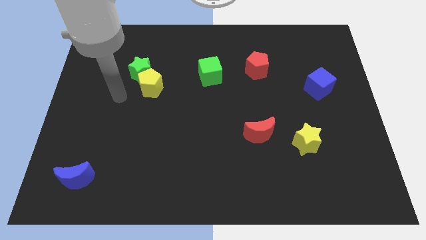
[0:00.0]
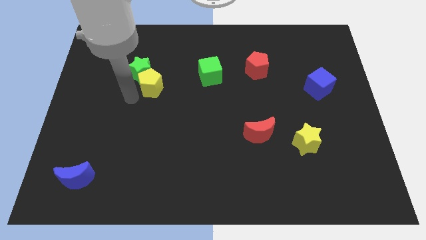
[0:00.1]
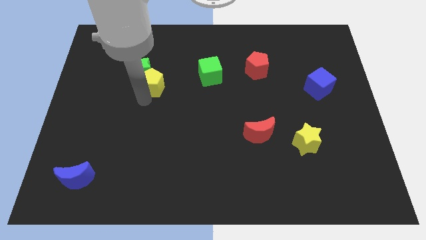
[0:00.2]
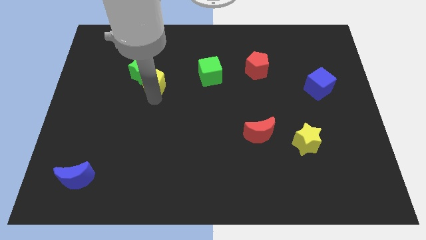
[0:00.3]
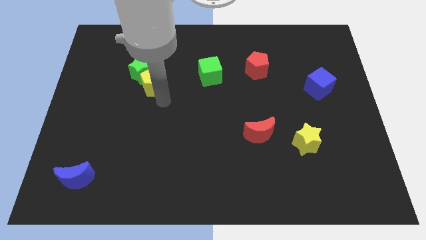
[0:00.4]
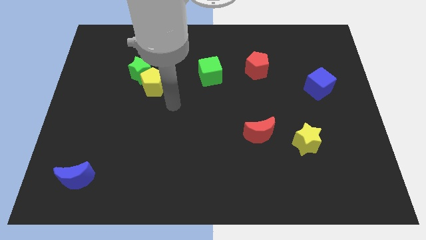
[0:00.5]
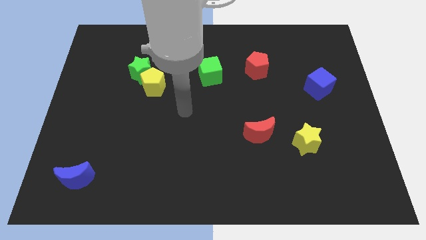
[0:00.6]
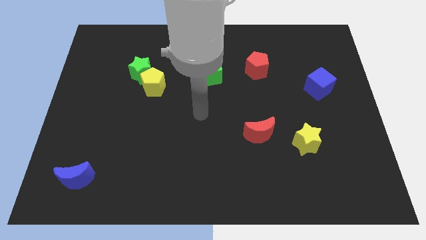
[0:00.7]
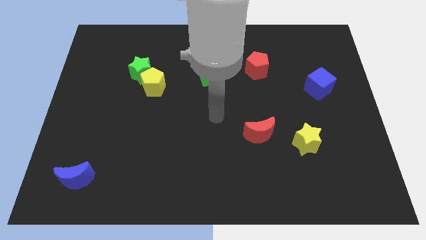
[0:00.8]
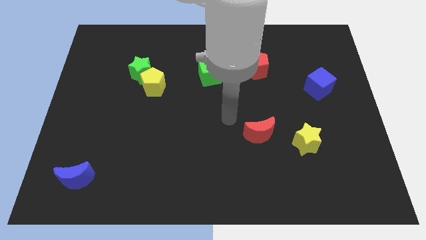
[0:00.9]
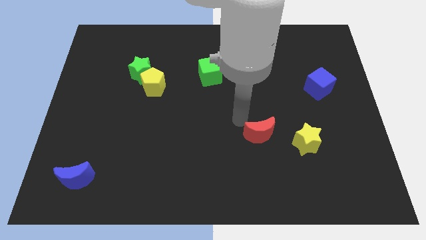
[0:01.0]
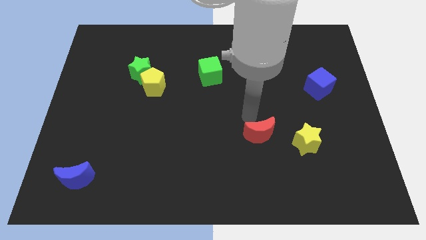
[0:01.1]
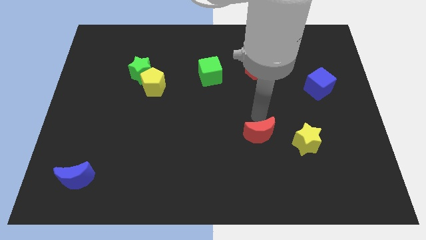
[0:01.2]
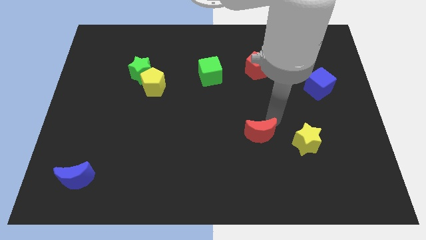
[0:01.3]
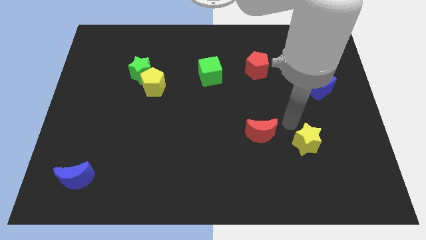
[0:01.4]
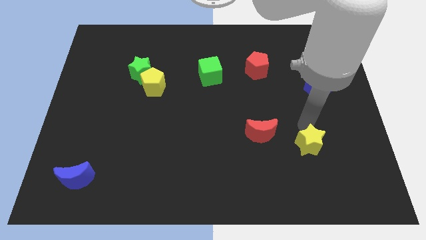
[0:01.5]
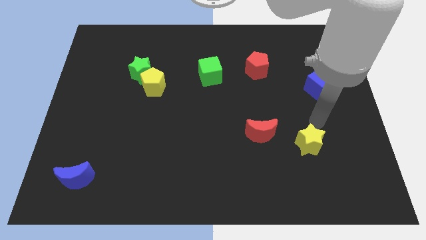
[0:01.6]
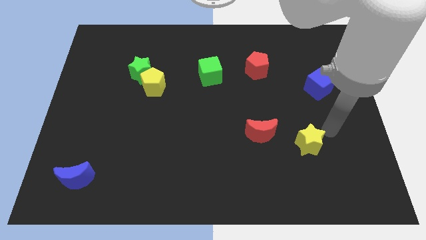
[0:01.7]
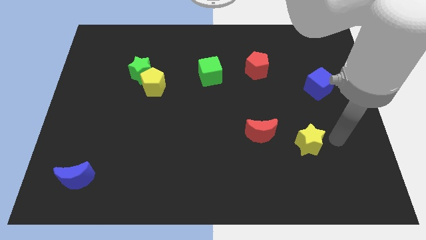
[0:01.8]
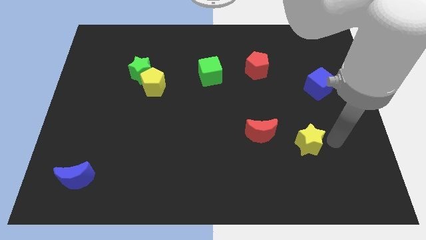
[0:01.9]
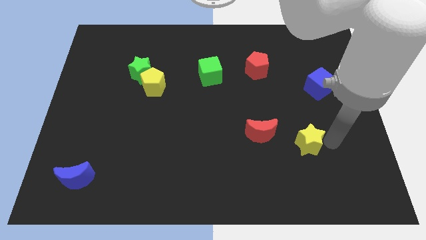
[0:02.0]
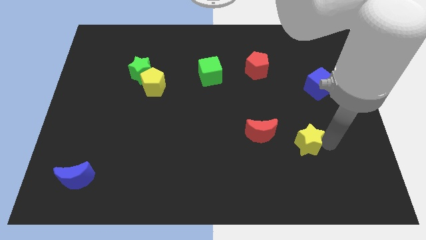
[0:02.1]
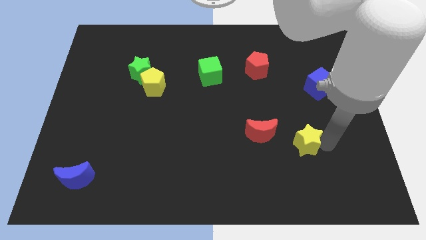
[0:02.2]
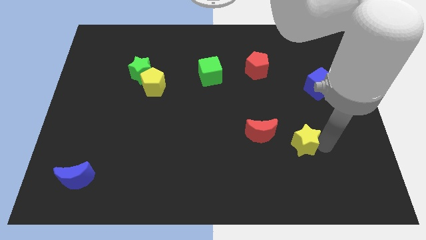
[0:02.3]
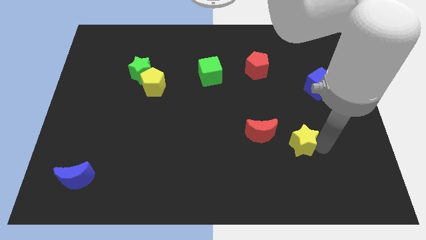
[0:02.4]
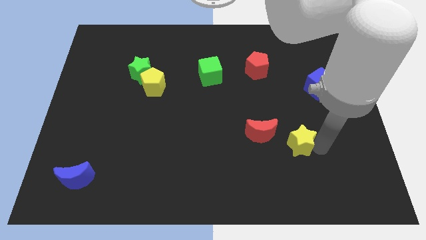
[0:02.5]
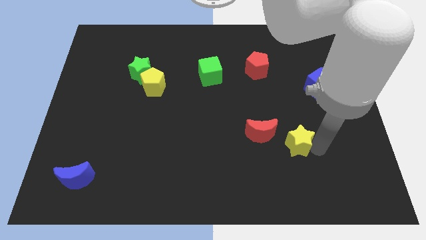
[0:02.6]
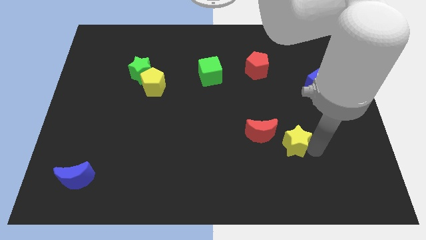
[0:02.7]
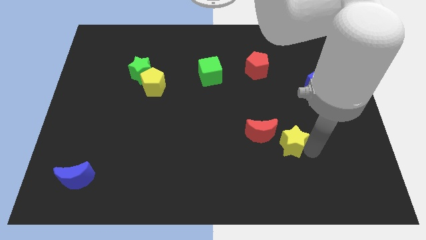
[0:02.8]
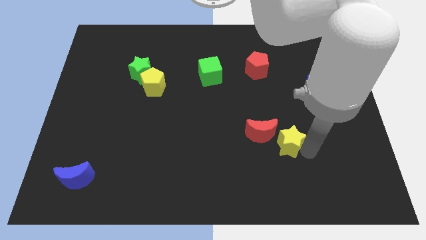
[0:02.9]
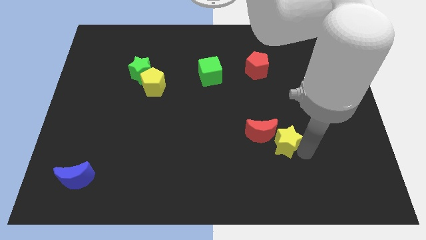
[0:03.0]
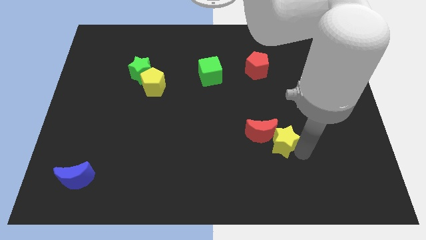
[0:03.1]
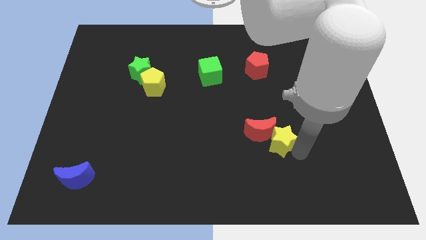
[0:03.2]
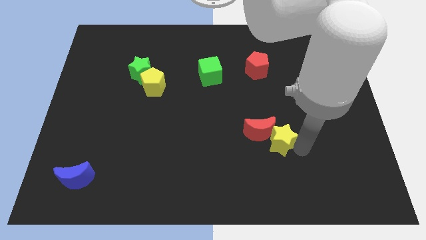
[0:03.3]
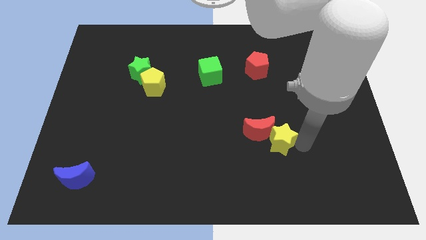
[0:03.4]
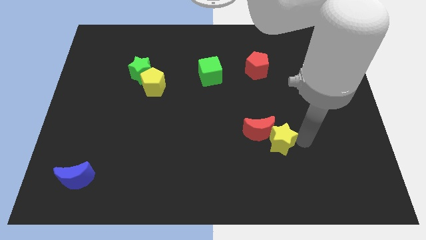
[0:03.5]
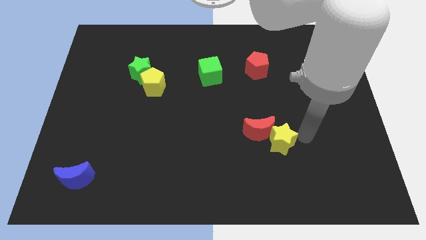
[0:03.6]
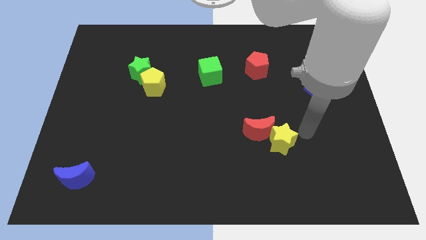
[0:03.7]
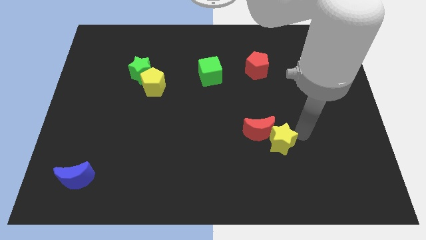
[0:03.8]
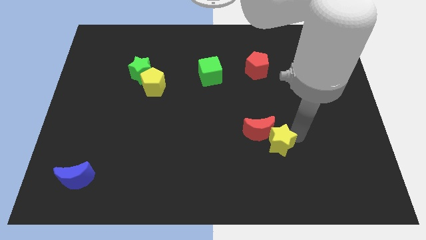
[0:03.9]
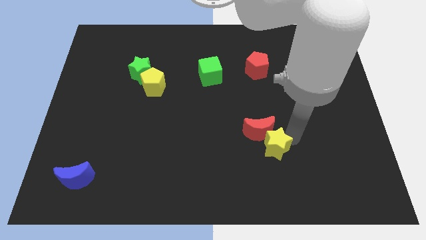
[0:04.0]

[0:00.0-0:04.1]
move the yellow star to the left slightly

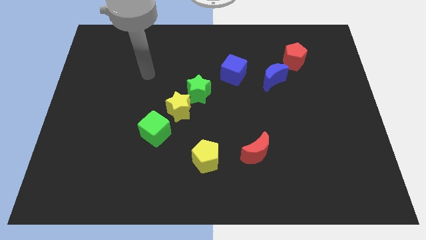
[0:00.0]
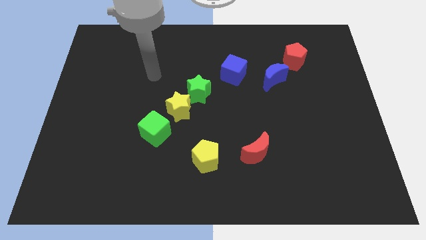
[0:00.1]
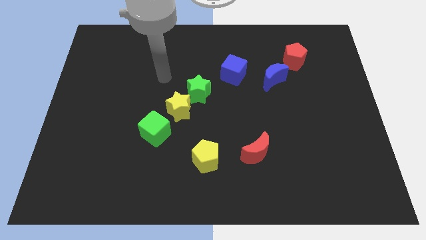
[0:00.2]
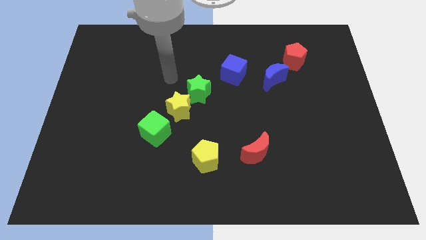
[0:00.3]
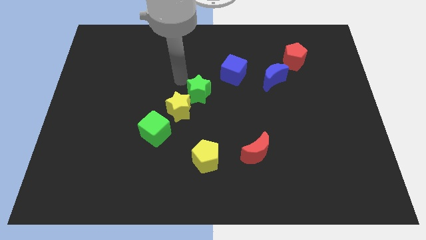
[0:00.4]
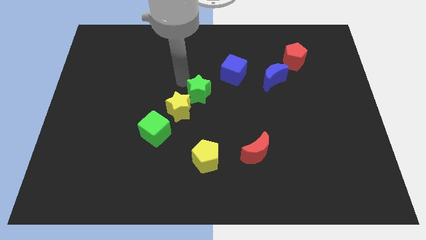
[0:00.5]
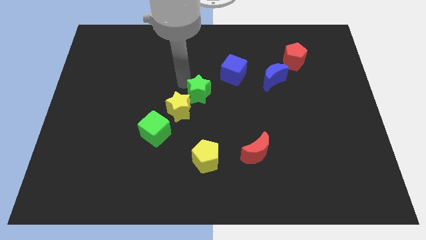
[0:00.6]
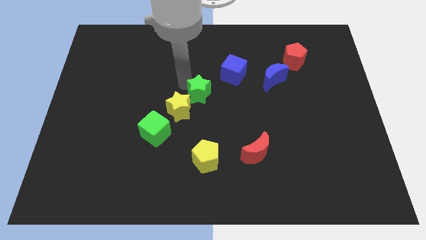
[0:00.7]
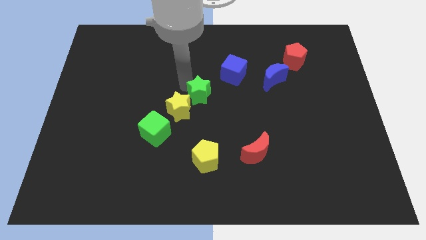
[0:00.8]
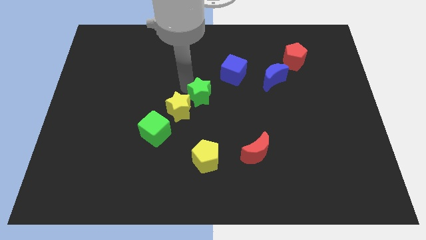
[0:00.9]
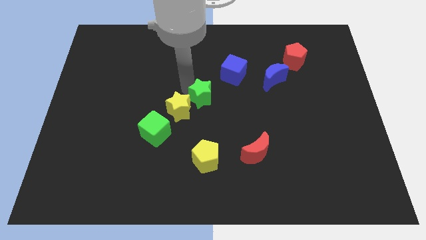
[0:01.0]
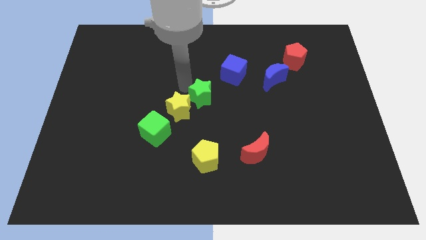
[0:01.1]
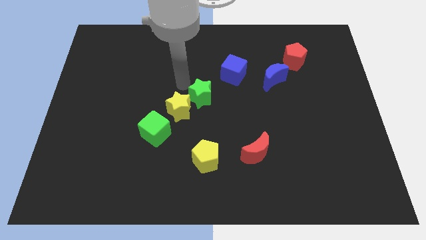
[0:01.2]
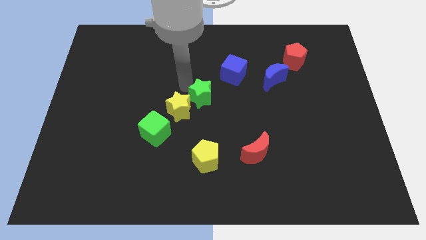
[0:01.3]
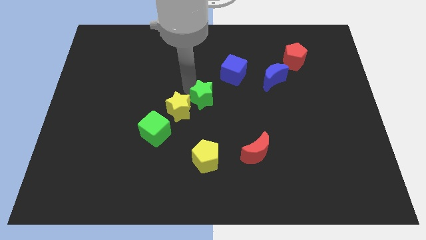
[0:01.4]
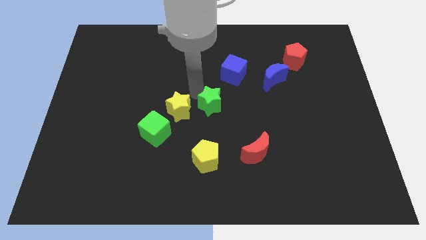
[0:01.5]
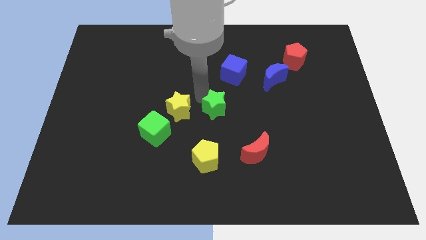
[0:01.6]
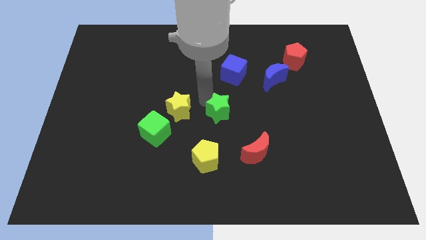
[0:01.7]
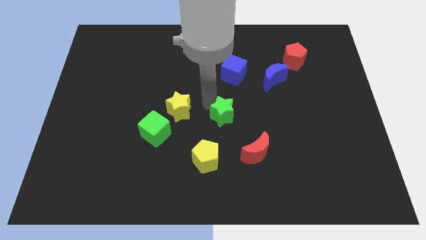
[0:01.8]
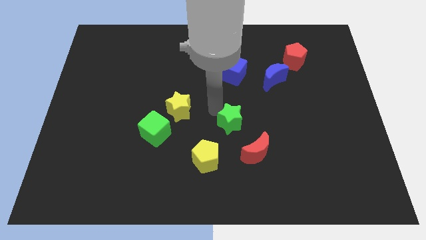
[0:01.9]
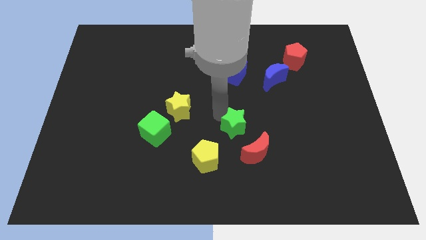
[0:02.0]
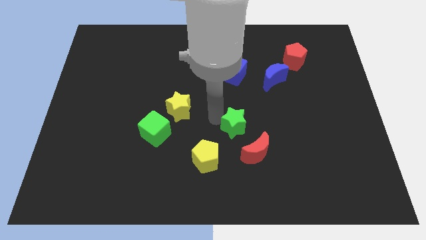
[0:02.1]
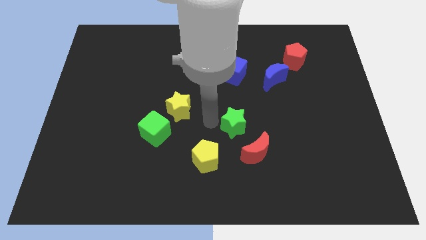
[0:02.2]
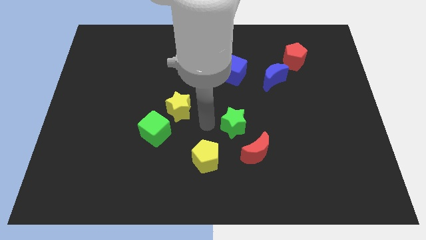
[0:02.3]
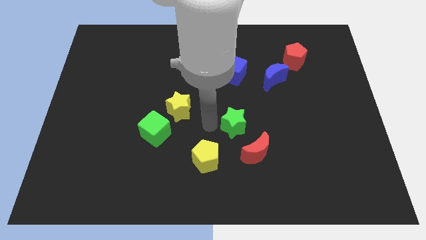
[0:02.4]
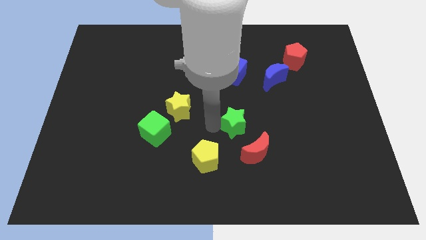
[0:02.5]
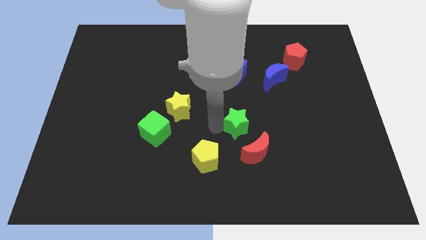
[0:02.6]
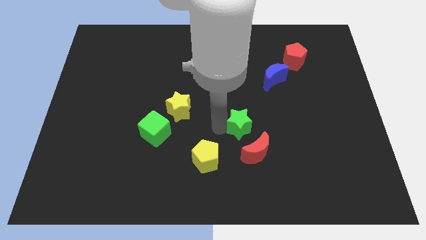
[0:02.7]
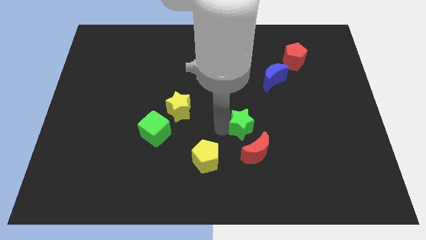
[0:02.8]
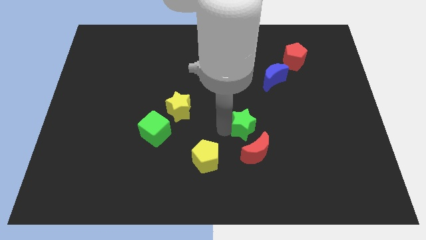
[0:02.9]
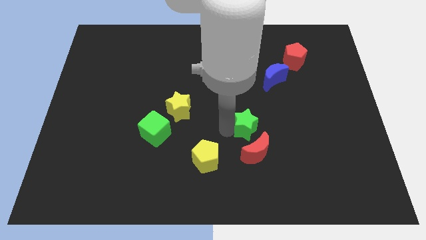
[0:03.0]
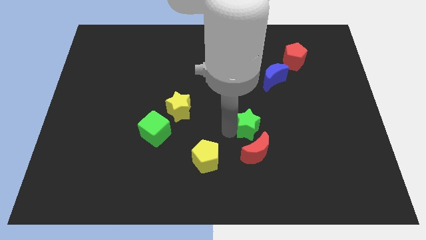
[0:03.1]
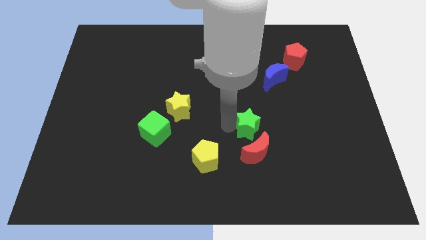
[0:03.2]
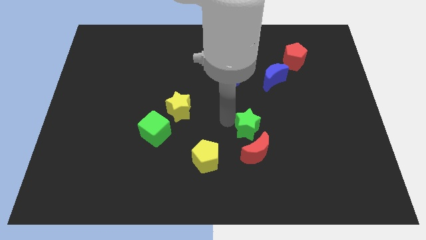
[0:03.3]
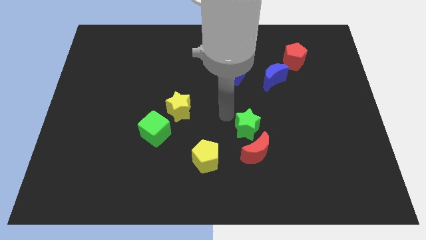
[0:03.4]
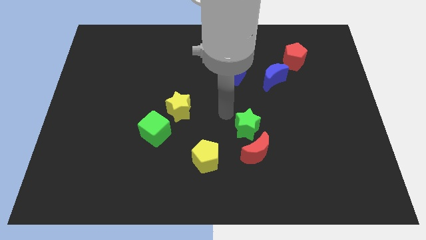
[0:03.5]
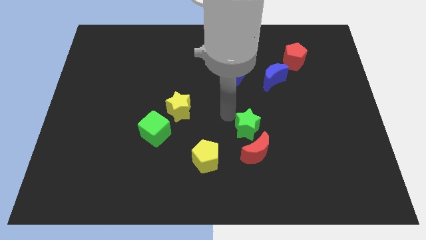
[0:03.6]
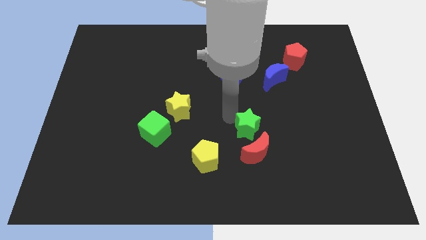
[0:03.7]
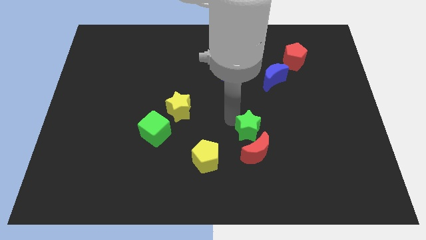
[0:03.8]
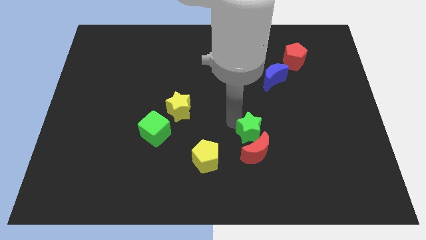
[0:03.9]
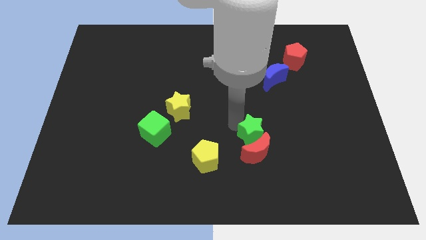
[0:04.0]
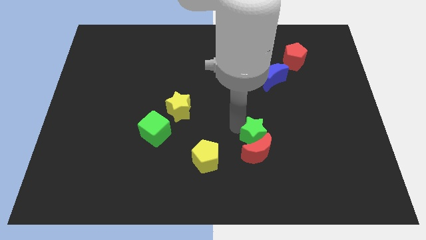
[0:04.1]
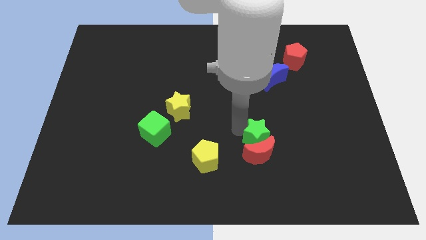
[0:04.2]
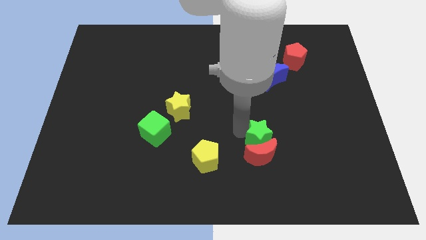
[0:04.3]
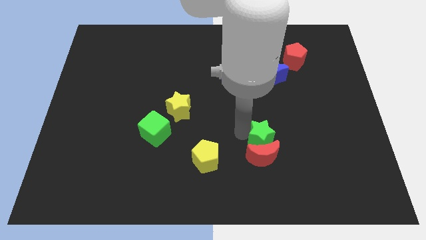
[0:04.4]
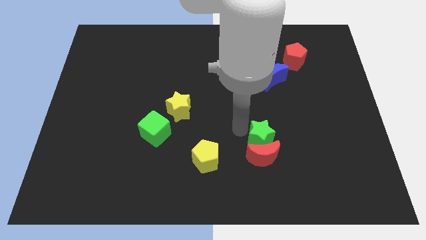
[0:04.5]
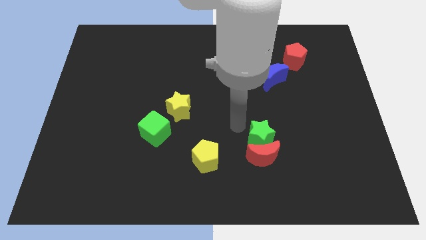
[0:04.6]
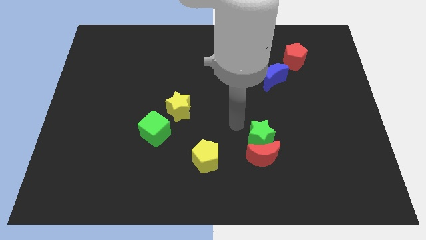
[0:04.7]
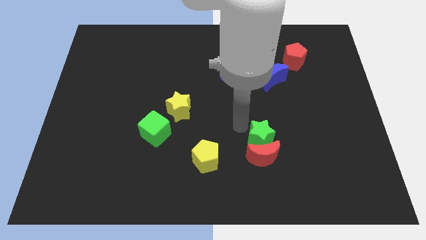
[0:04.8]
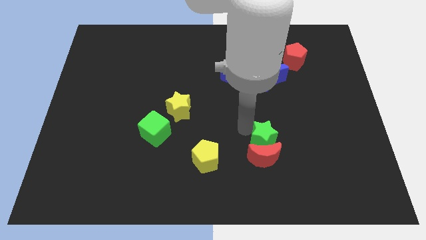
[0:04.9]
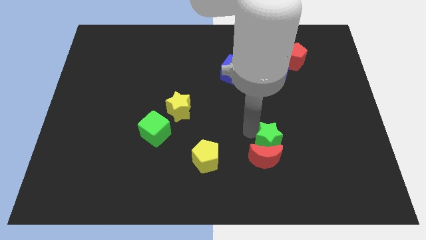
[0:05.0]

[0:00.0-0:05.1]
push the green star down and right diagonally
